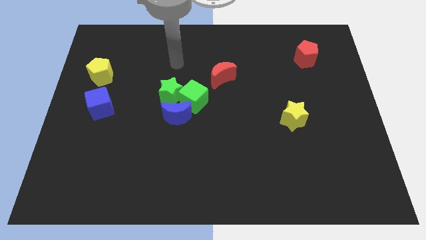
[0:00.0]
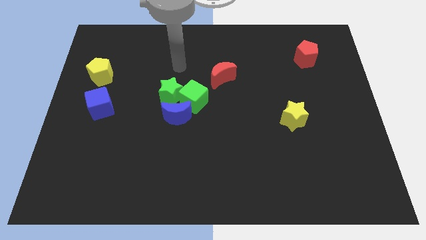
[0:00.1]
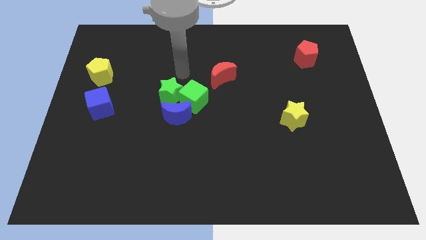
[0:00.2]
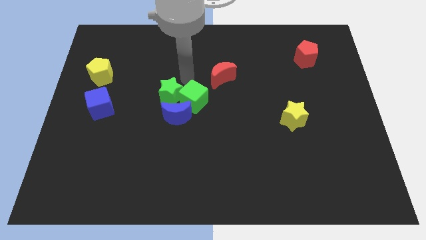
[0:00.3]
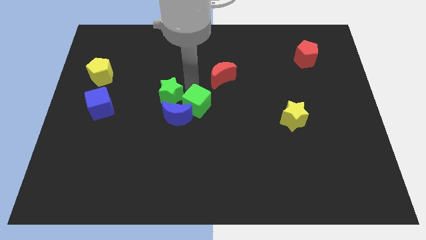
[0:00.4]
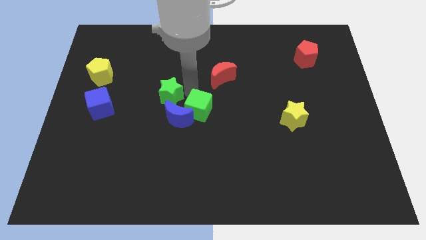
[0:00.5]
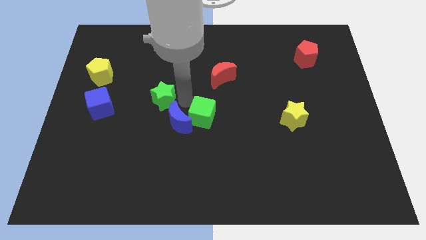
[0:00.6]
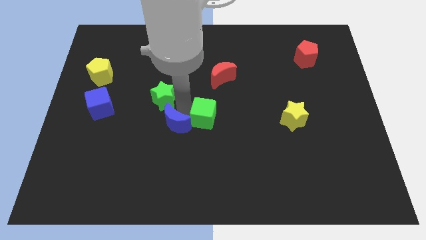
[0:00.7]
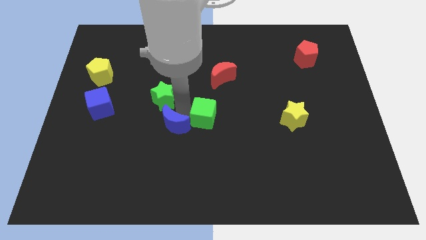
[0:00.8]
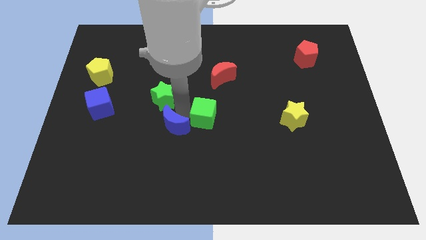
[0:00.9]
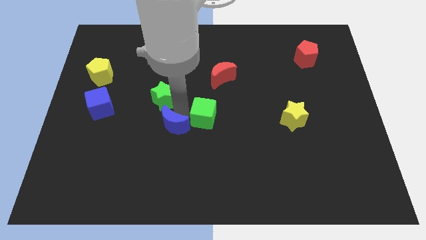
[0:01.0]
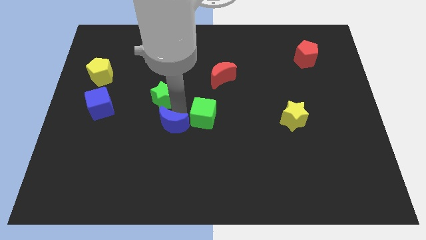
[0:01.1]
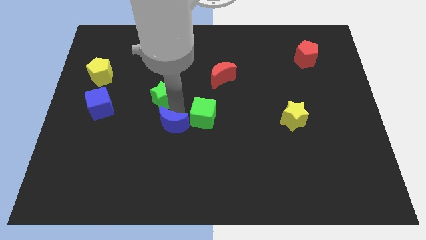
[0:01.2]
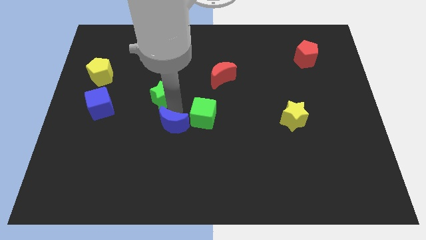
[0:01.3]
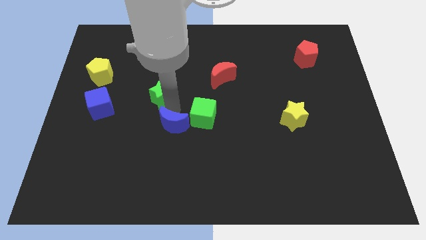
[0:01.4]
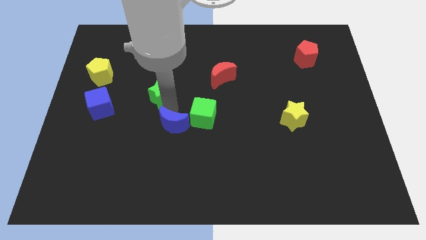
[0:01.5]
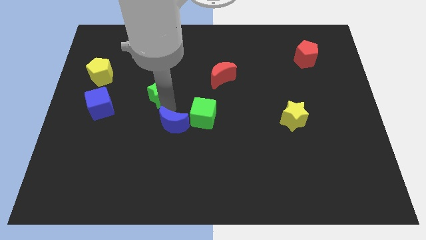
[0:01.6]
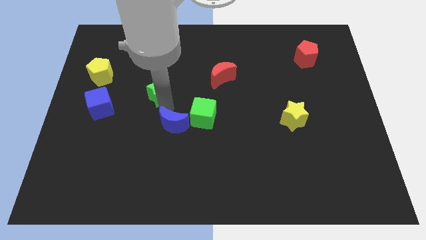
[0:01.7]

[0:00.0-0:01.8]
separate the green star from the green cube and blue moon

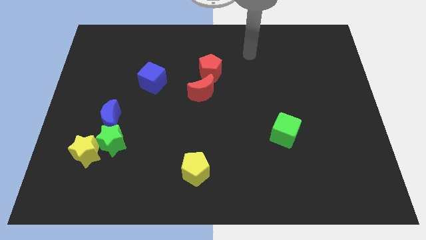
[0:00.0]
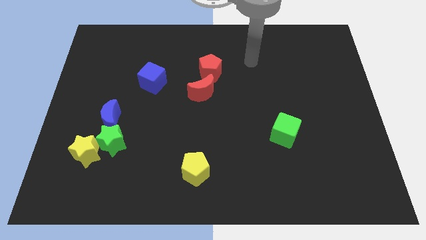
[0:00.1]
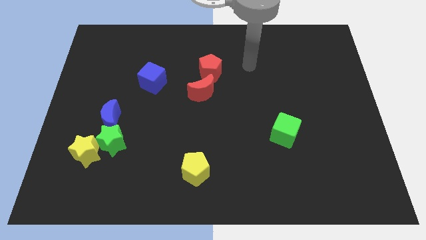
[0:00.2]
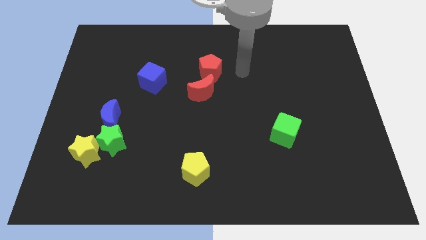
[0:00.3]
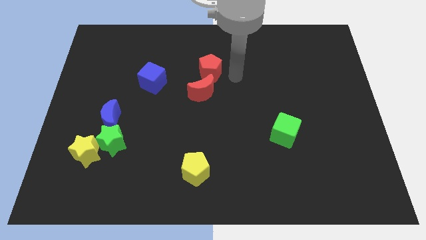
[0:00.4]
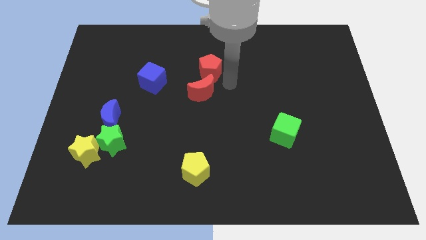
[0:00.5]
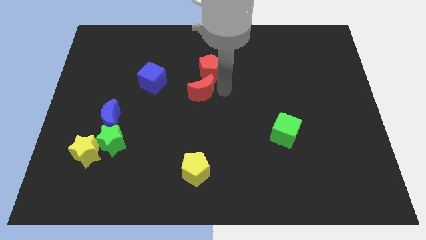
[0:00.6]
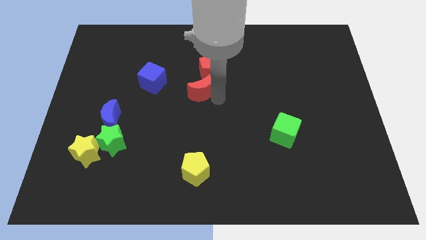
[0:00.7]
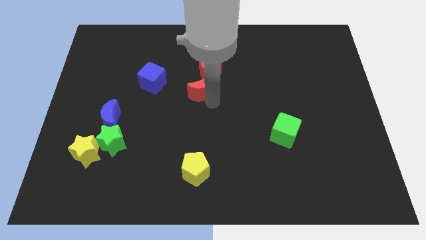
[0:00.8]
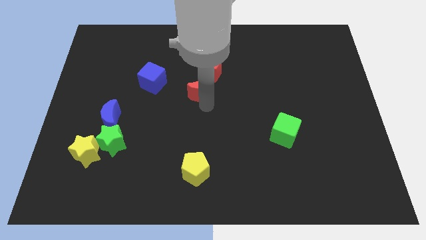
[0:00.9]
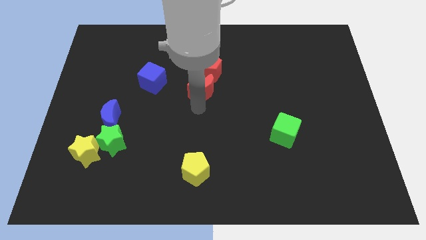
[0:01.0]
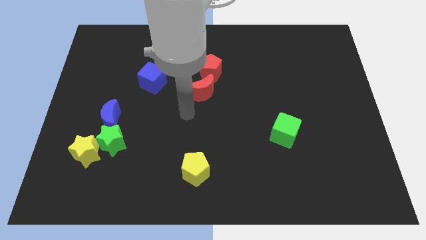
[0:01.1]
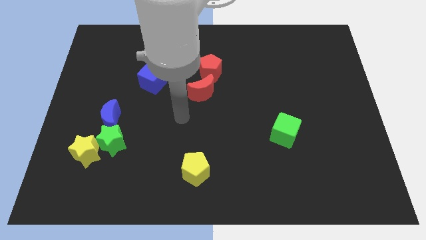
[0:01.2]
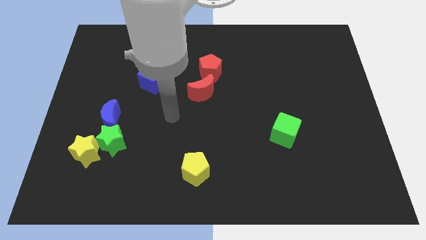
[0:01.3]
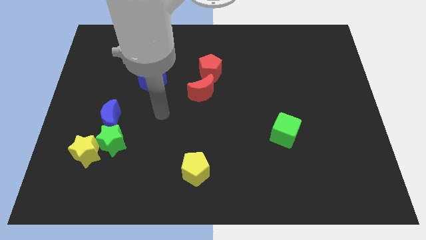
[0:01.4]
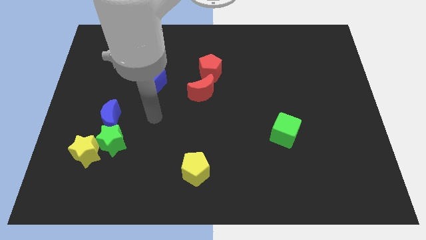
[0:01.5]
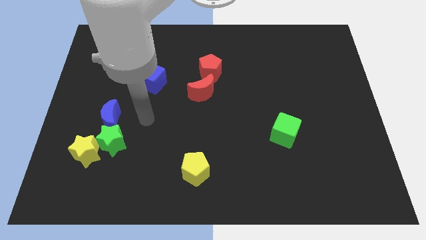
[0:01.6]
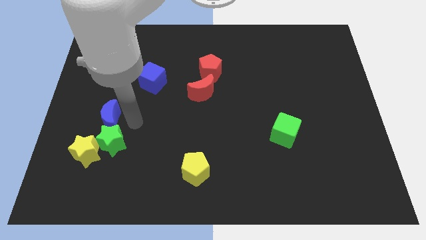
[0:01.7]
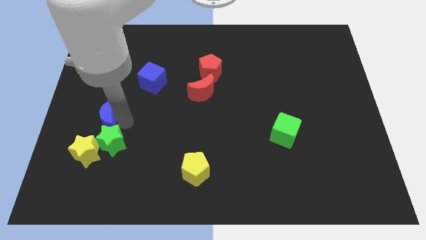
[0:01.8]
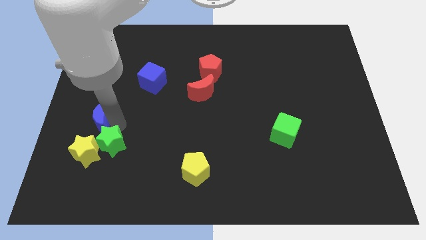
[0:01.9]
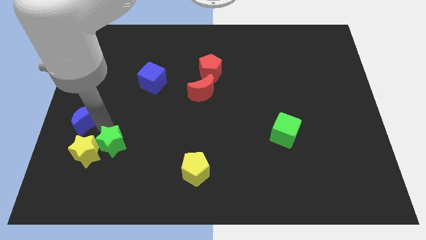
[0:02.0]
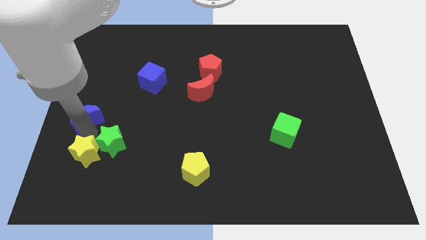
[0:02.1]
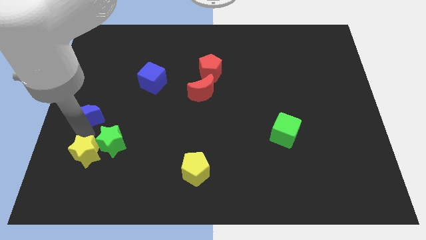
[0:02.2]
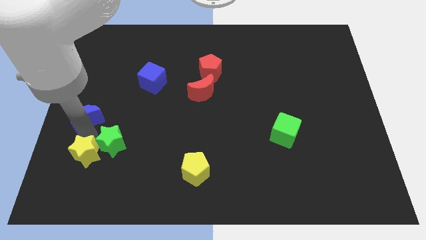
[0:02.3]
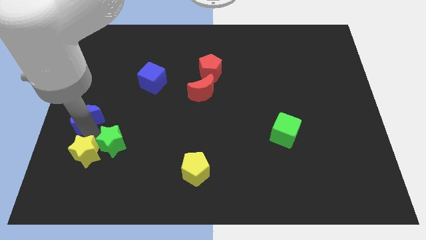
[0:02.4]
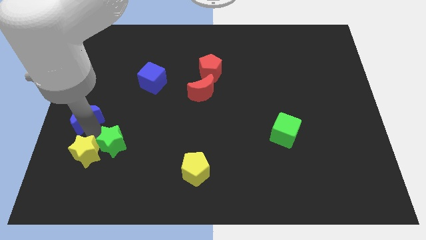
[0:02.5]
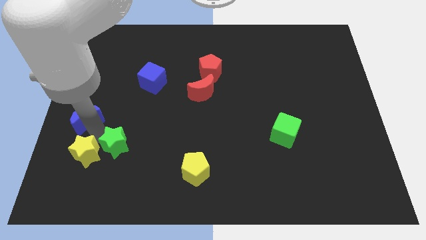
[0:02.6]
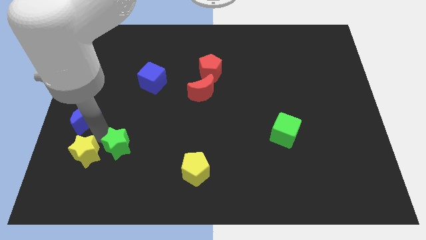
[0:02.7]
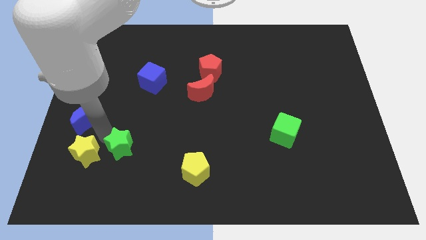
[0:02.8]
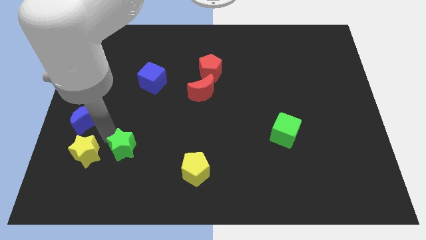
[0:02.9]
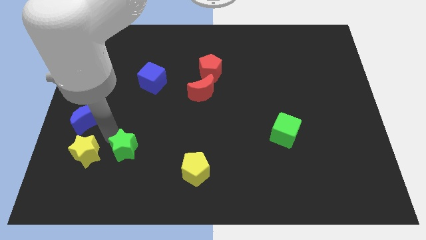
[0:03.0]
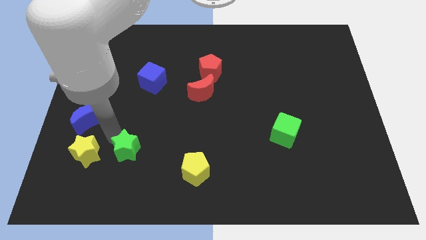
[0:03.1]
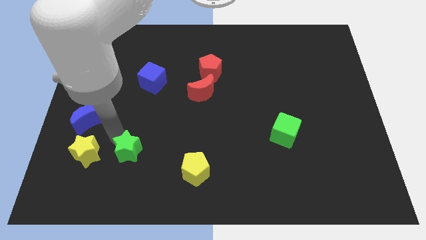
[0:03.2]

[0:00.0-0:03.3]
separate the green star from the yellow star and blue moon

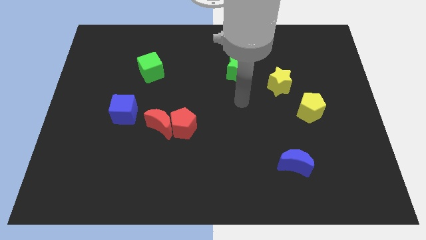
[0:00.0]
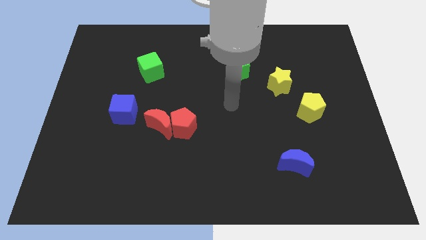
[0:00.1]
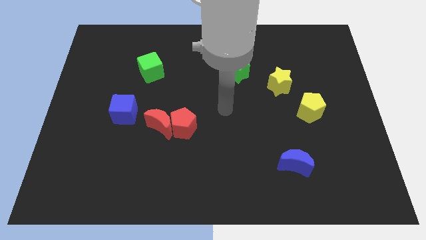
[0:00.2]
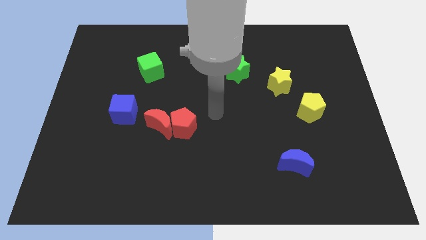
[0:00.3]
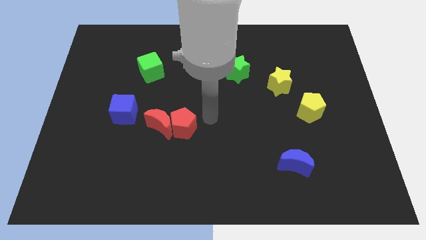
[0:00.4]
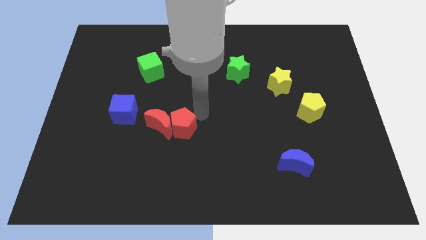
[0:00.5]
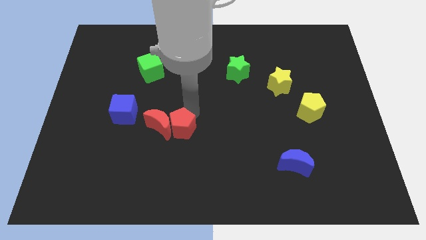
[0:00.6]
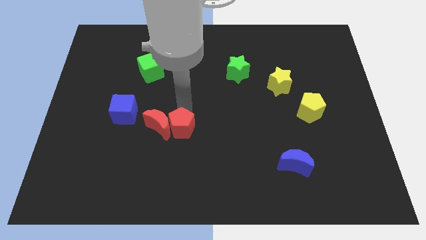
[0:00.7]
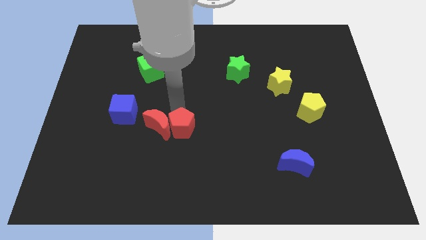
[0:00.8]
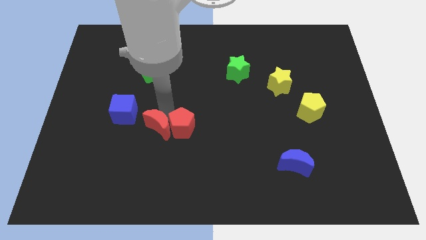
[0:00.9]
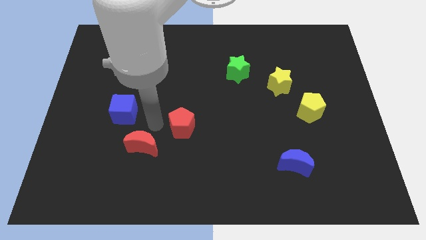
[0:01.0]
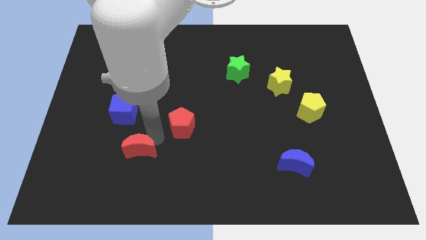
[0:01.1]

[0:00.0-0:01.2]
pull the red pentagon apart from the red moon

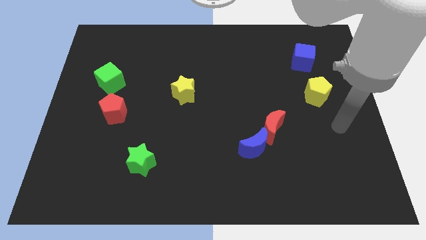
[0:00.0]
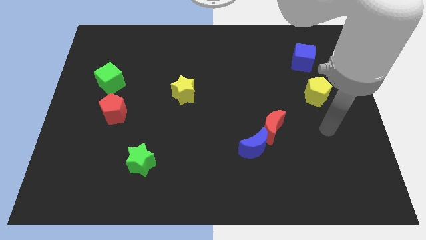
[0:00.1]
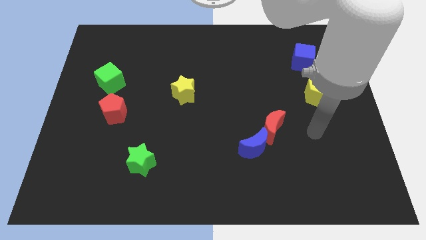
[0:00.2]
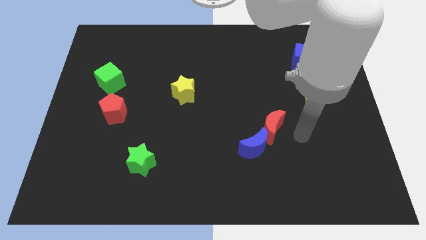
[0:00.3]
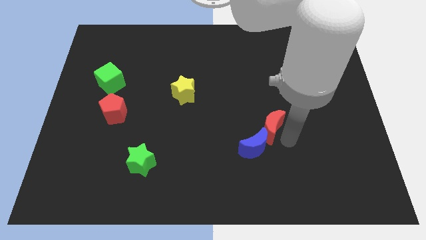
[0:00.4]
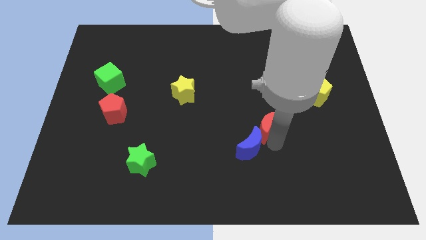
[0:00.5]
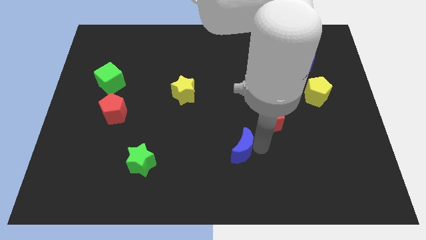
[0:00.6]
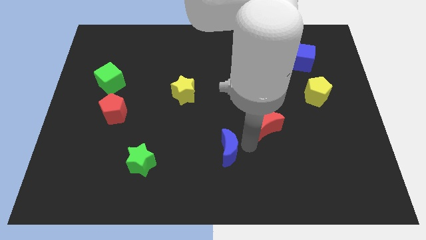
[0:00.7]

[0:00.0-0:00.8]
move the red moon away from the blue moon

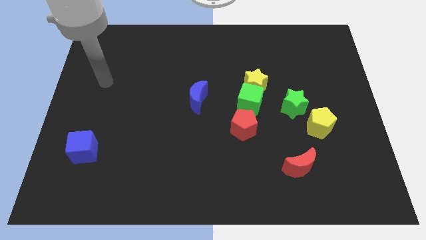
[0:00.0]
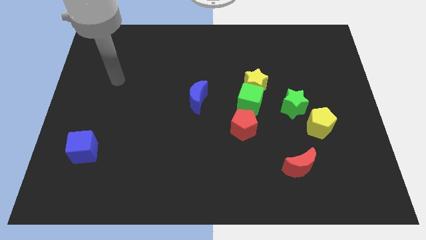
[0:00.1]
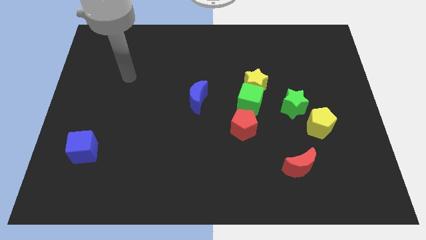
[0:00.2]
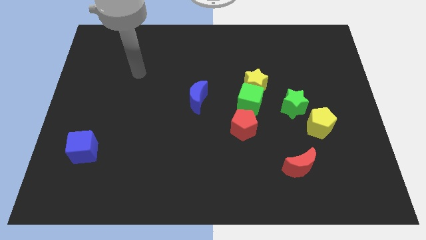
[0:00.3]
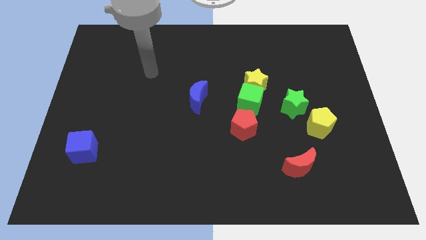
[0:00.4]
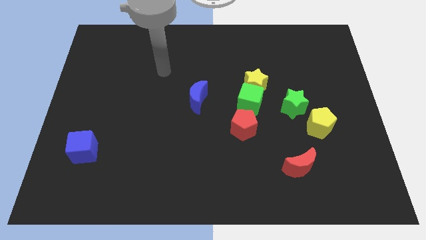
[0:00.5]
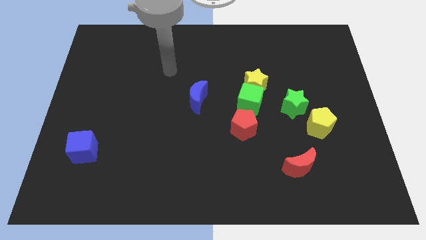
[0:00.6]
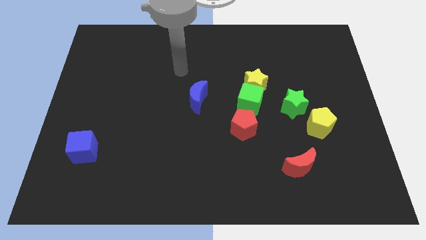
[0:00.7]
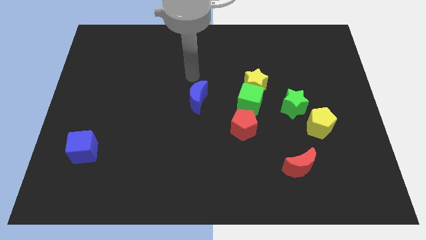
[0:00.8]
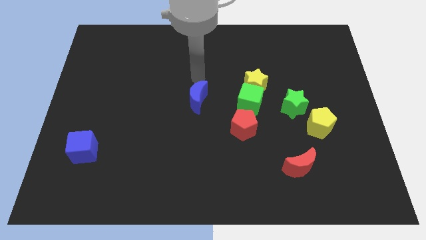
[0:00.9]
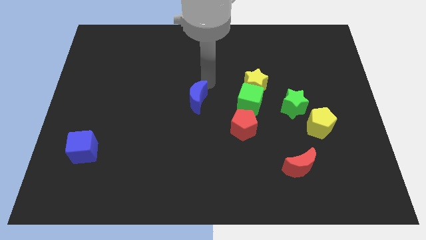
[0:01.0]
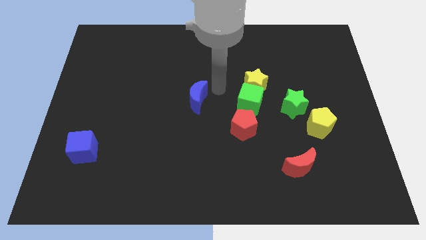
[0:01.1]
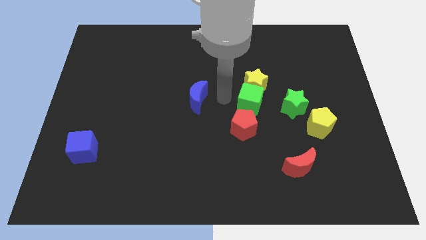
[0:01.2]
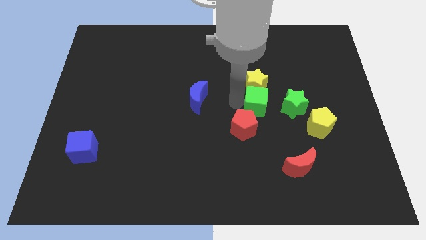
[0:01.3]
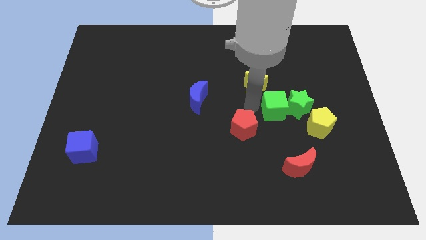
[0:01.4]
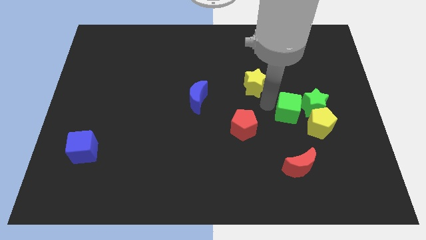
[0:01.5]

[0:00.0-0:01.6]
separate the yellow star from the green cube

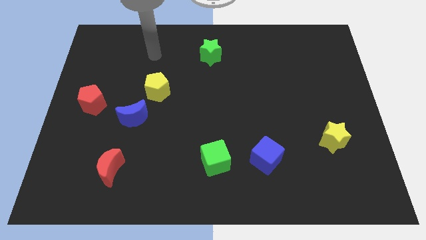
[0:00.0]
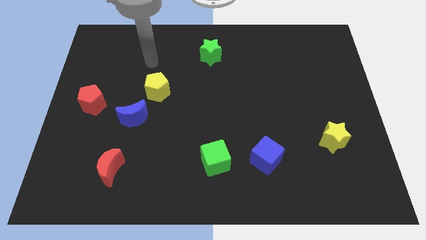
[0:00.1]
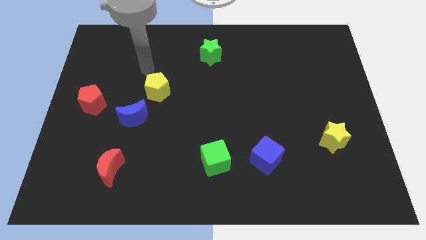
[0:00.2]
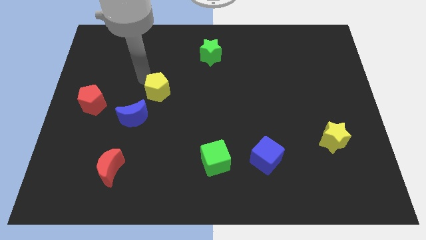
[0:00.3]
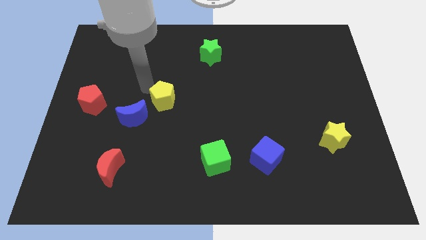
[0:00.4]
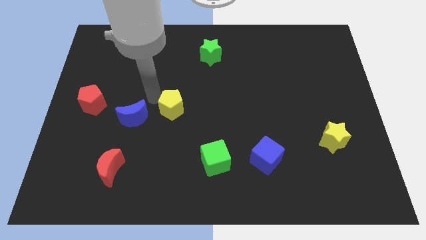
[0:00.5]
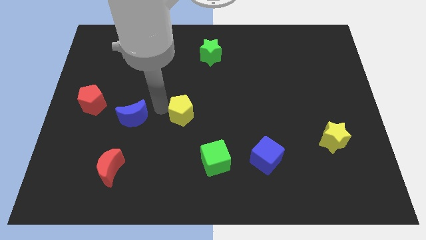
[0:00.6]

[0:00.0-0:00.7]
separate the blue moon from the yellow pentagon

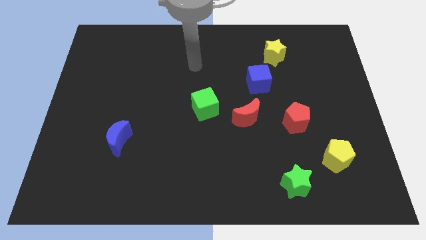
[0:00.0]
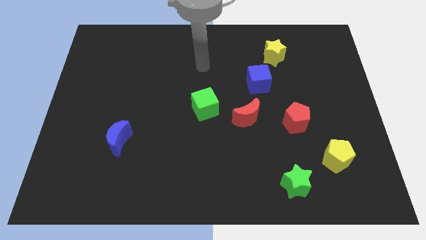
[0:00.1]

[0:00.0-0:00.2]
separate the blue cube from the yellow star
